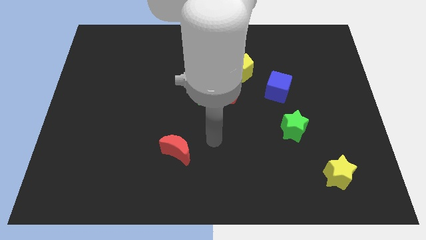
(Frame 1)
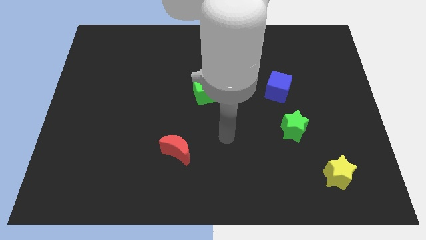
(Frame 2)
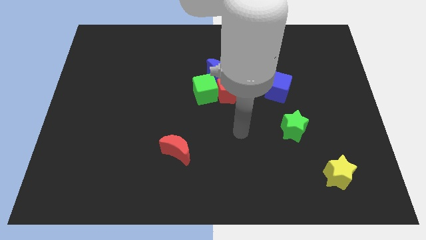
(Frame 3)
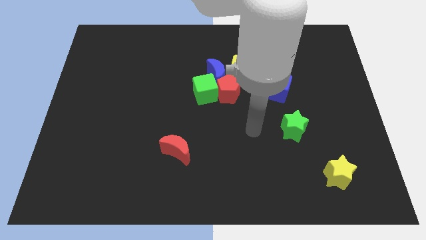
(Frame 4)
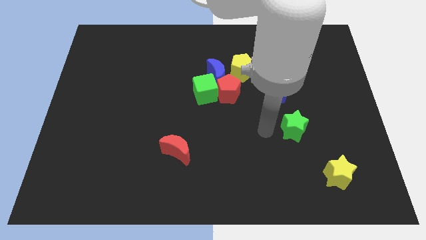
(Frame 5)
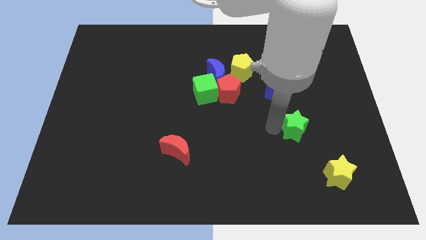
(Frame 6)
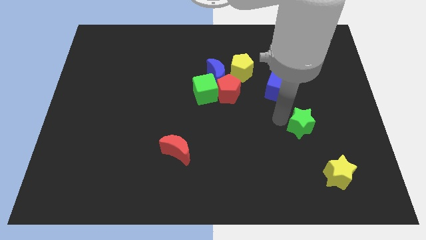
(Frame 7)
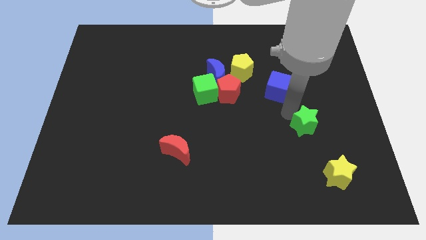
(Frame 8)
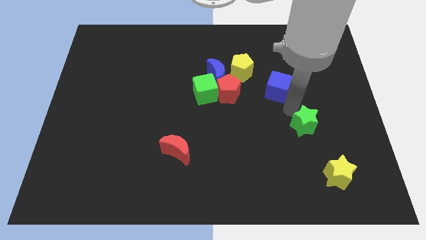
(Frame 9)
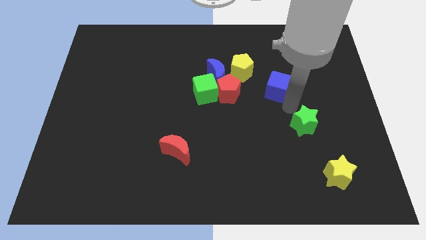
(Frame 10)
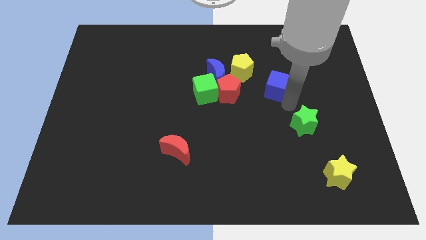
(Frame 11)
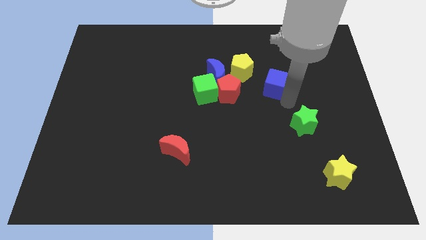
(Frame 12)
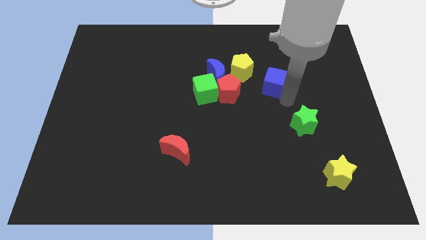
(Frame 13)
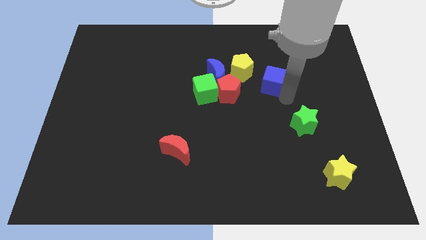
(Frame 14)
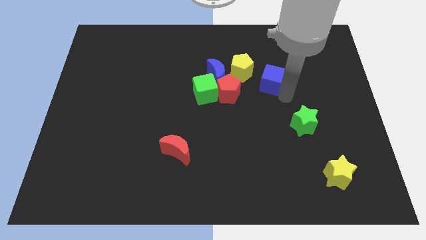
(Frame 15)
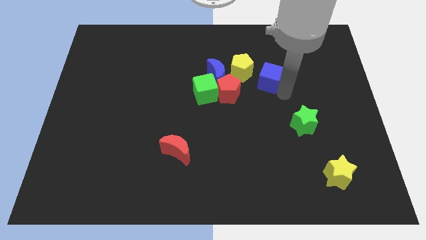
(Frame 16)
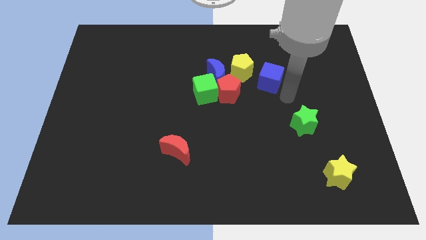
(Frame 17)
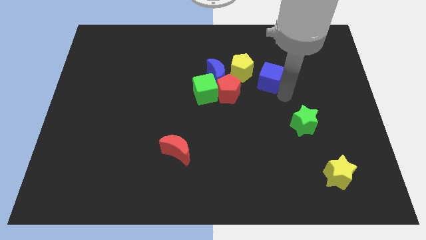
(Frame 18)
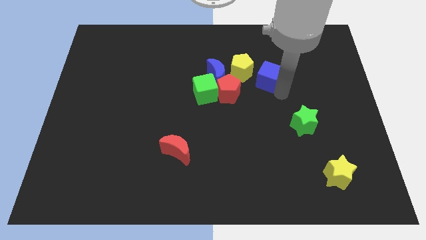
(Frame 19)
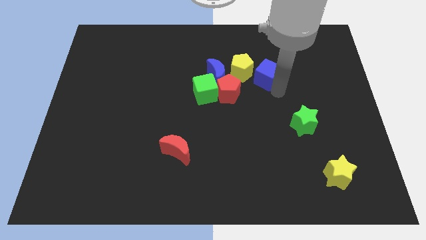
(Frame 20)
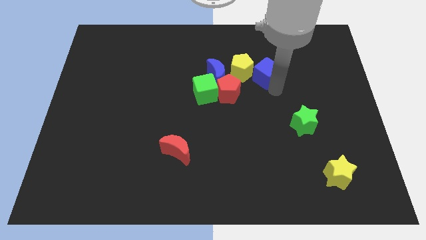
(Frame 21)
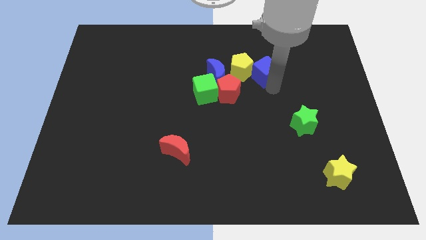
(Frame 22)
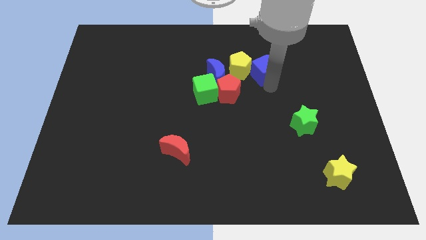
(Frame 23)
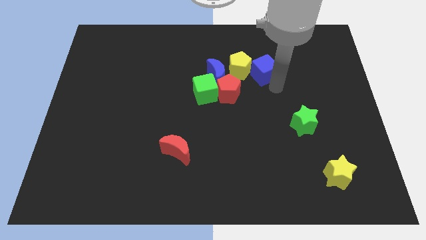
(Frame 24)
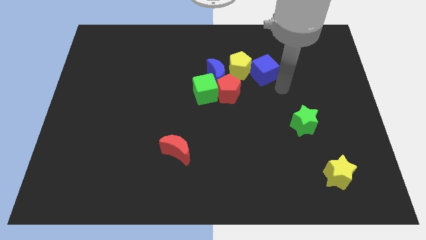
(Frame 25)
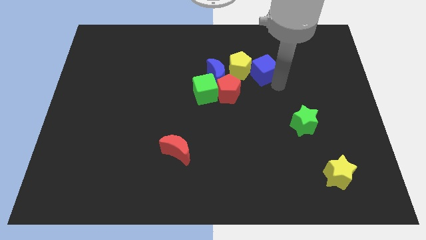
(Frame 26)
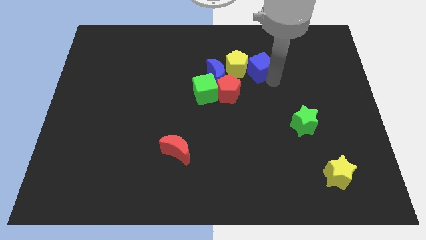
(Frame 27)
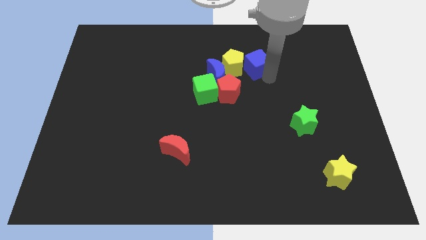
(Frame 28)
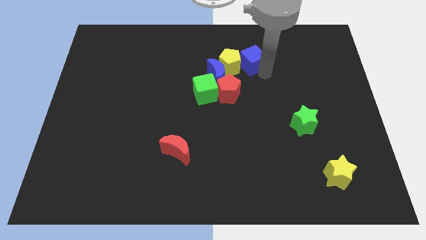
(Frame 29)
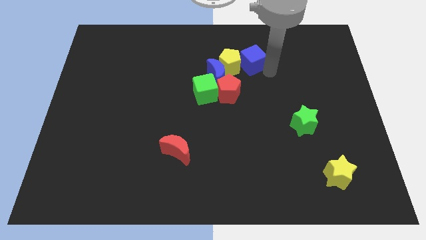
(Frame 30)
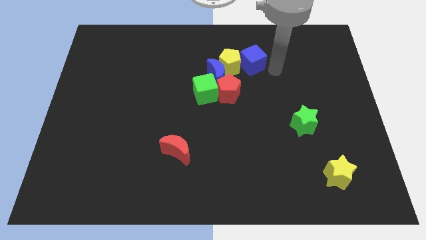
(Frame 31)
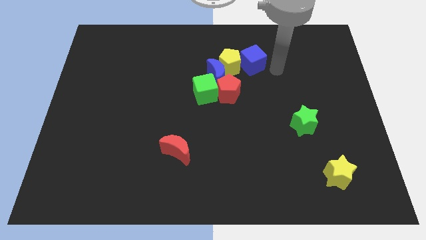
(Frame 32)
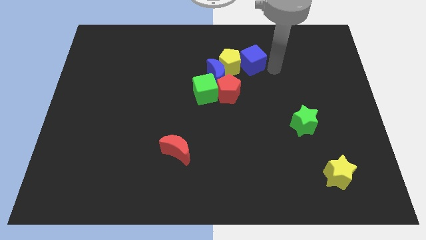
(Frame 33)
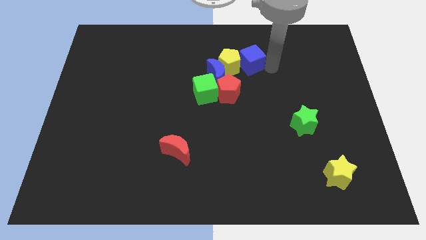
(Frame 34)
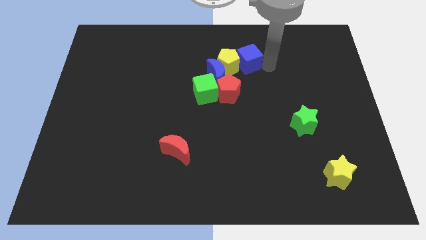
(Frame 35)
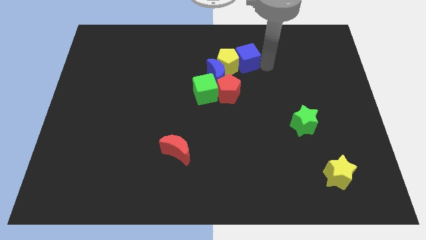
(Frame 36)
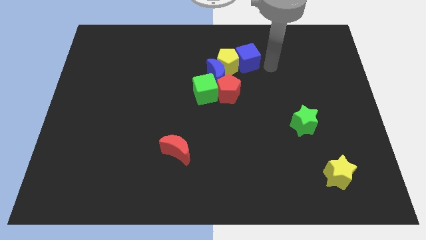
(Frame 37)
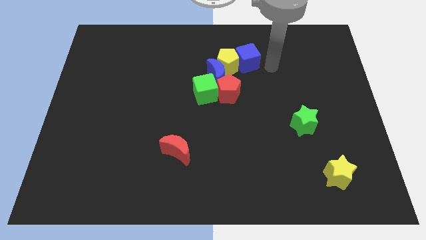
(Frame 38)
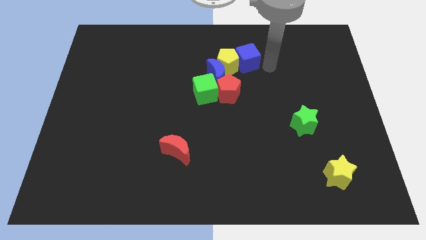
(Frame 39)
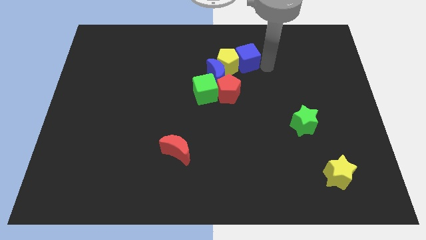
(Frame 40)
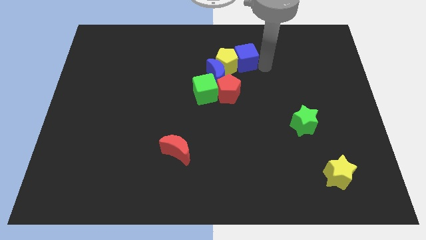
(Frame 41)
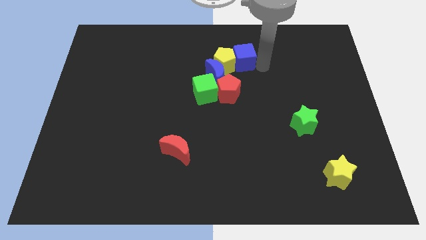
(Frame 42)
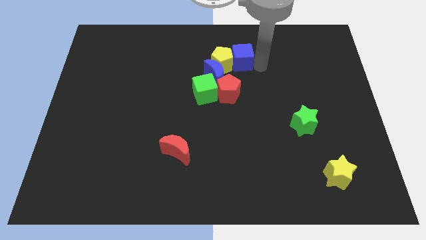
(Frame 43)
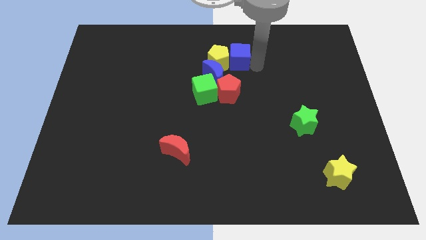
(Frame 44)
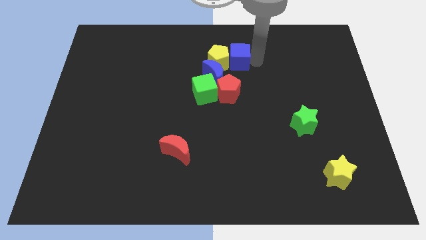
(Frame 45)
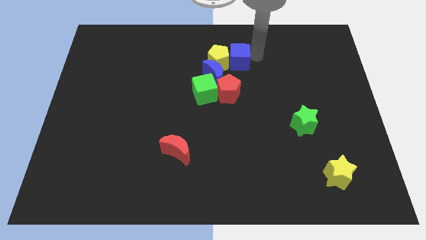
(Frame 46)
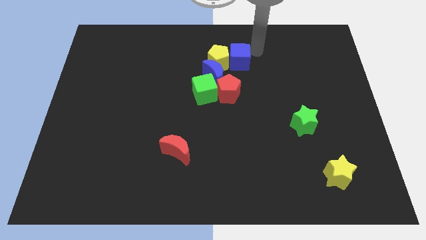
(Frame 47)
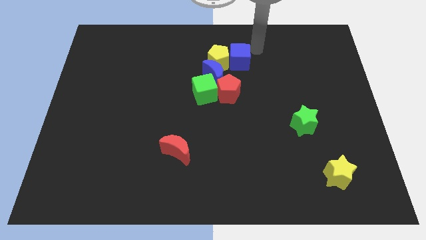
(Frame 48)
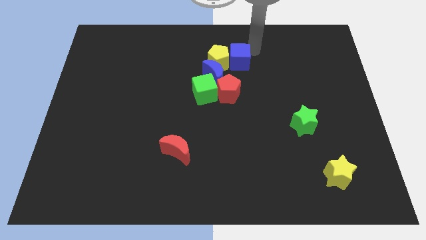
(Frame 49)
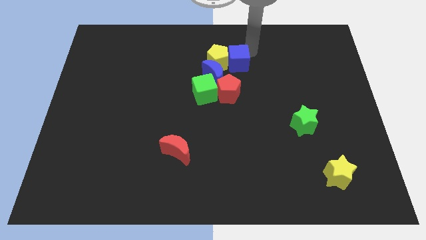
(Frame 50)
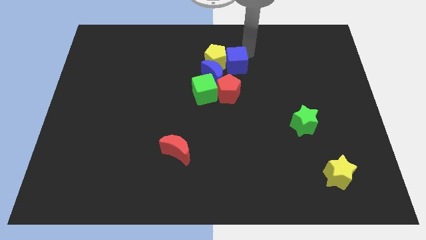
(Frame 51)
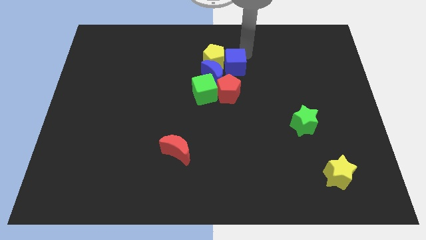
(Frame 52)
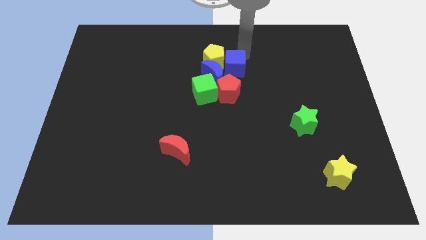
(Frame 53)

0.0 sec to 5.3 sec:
put the blue cube next to the blue moon

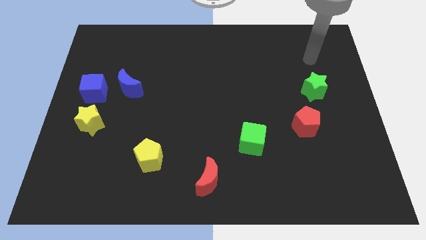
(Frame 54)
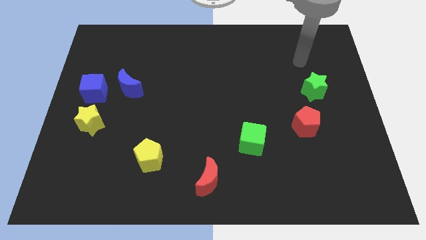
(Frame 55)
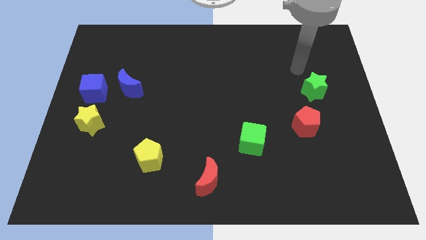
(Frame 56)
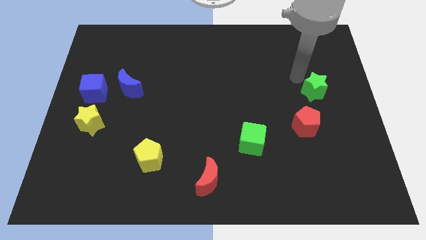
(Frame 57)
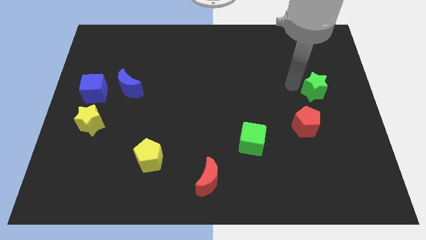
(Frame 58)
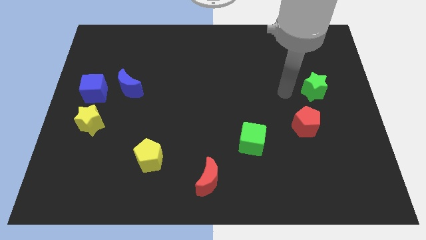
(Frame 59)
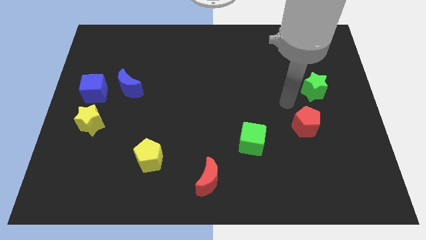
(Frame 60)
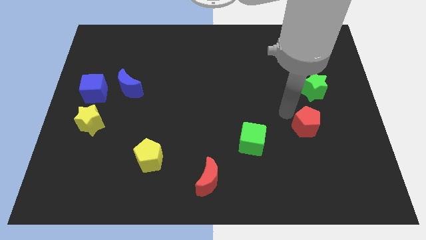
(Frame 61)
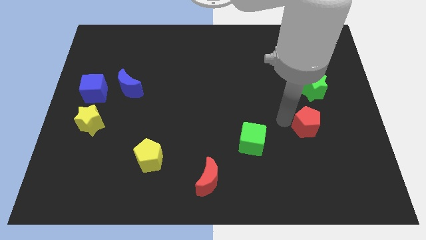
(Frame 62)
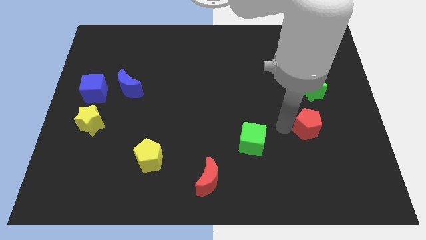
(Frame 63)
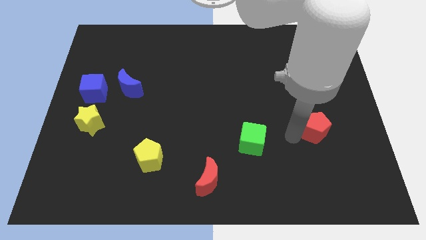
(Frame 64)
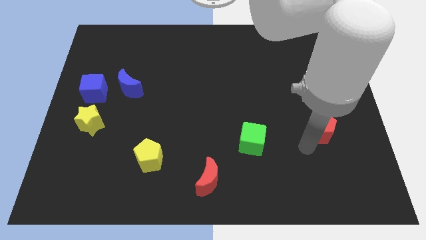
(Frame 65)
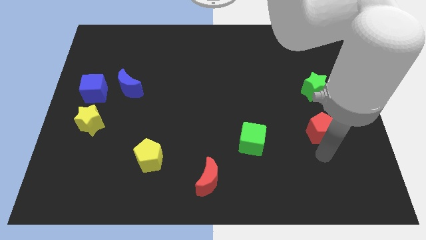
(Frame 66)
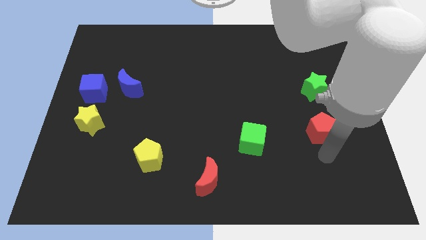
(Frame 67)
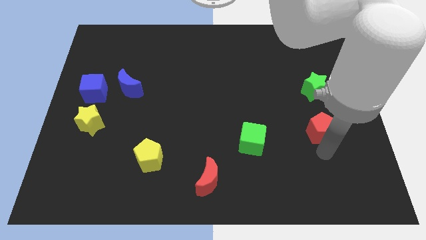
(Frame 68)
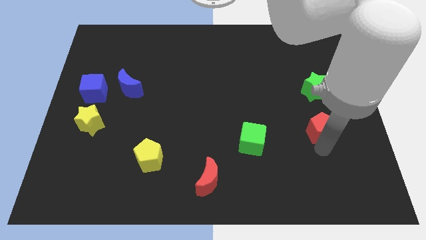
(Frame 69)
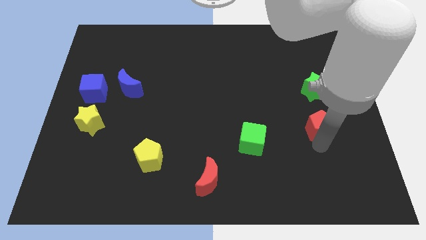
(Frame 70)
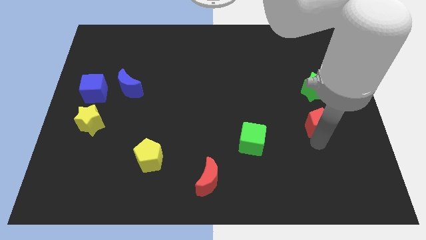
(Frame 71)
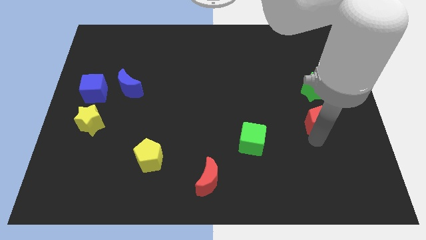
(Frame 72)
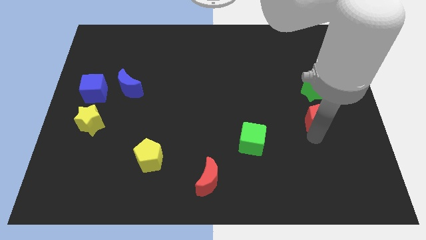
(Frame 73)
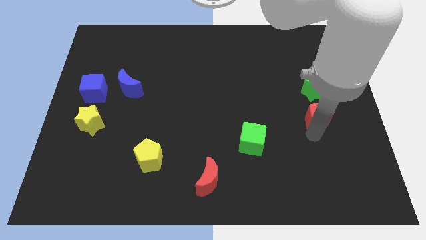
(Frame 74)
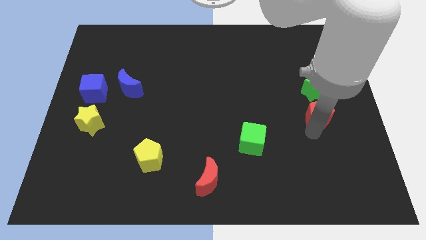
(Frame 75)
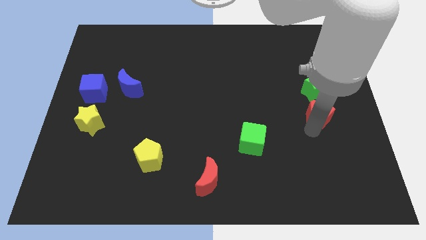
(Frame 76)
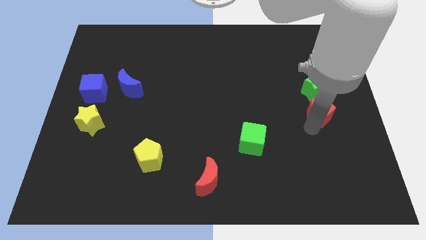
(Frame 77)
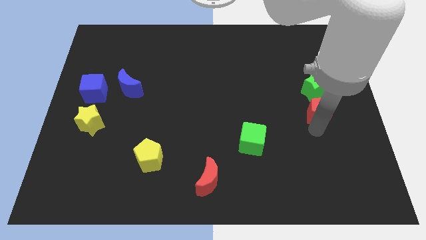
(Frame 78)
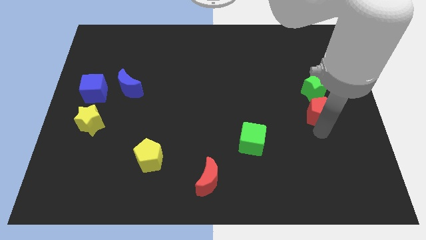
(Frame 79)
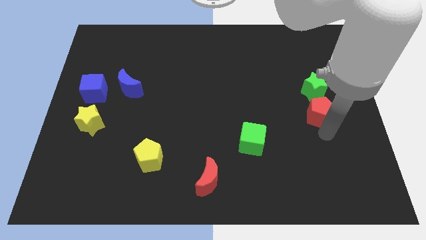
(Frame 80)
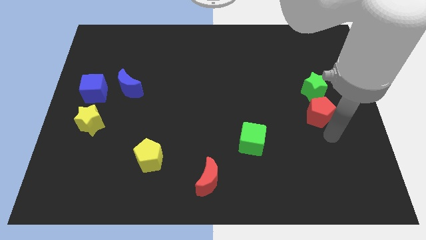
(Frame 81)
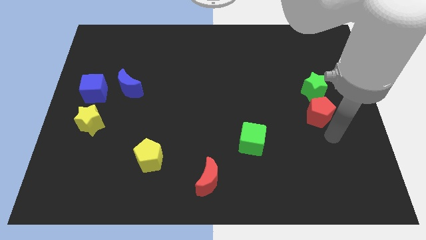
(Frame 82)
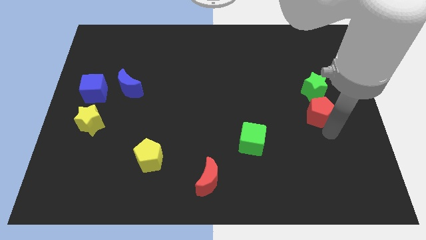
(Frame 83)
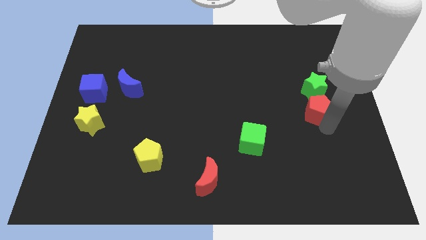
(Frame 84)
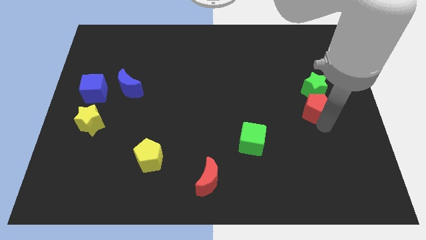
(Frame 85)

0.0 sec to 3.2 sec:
slide the red pentagon to the green star
